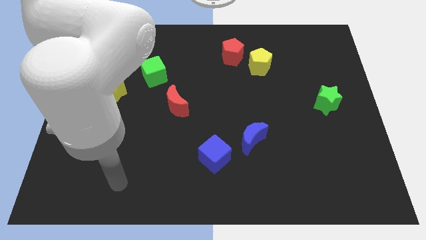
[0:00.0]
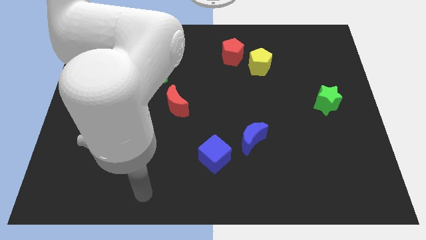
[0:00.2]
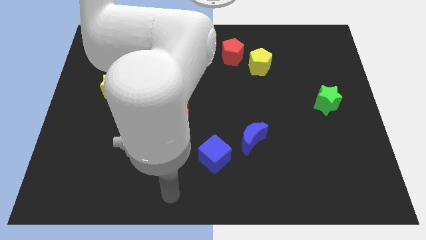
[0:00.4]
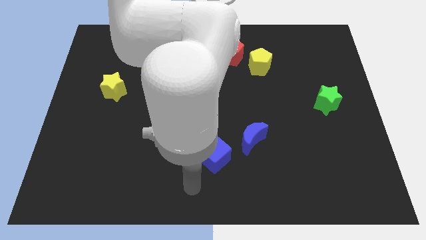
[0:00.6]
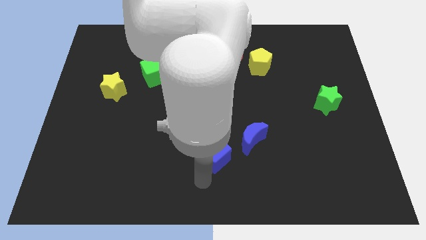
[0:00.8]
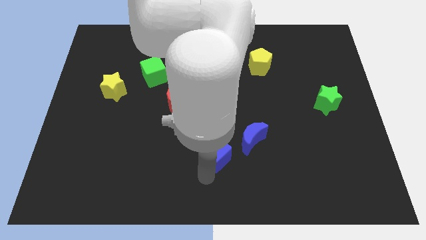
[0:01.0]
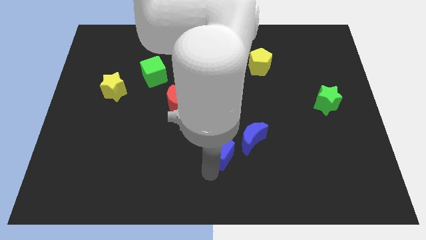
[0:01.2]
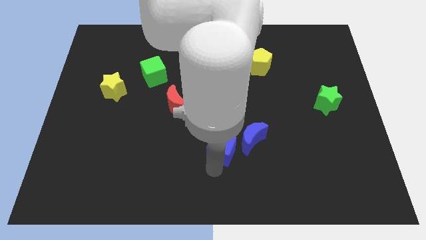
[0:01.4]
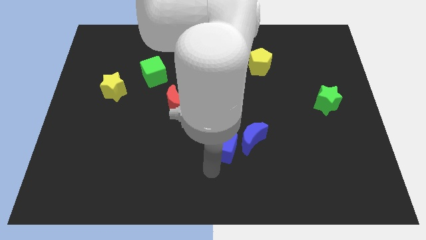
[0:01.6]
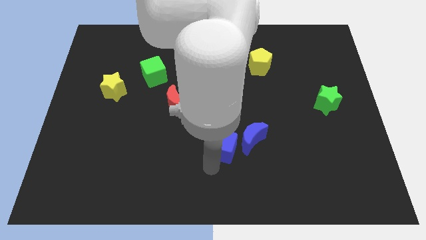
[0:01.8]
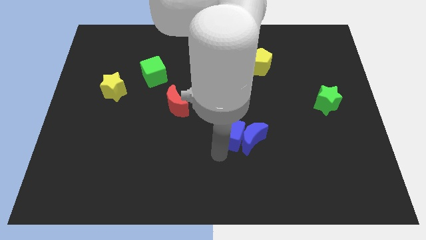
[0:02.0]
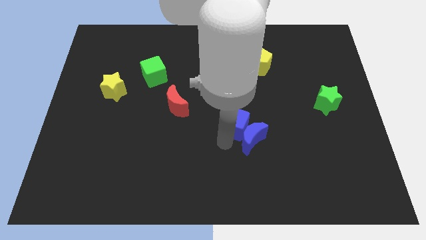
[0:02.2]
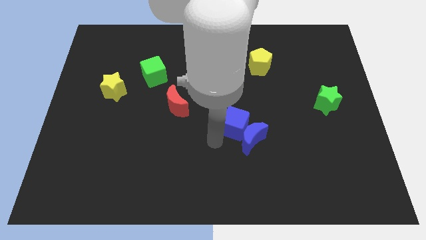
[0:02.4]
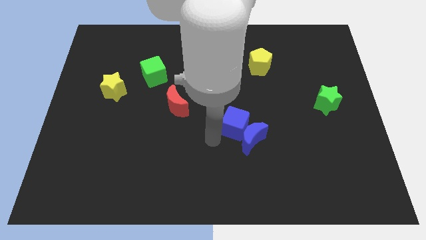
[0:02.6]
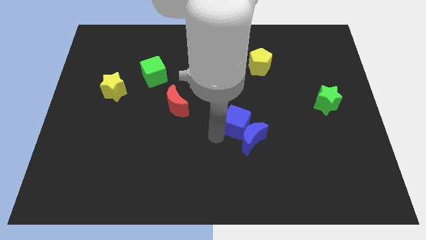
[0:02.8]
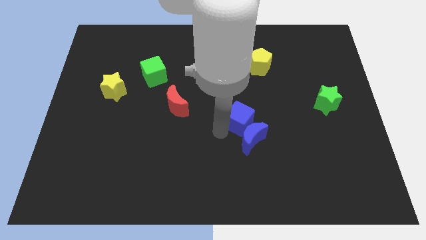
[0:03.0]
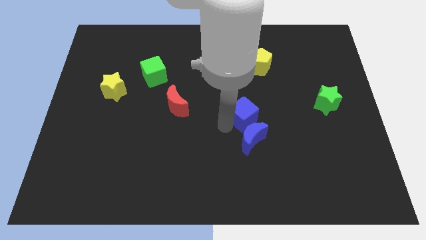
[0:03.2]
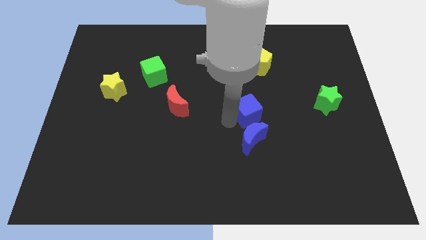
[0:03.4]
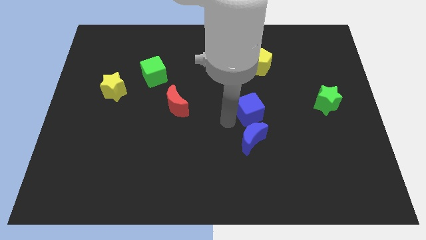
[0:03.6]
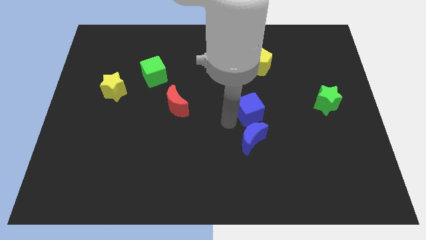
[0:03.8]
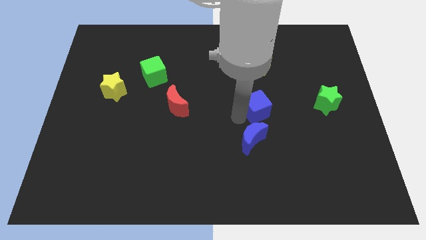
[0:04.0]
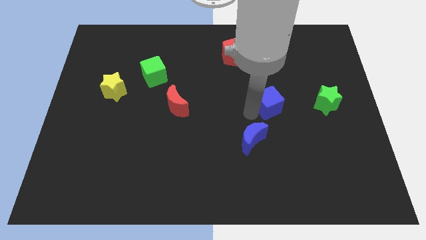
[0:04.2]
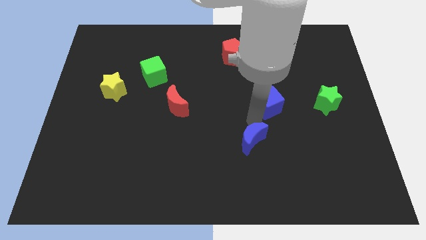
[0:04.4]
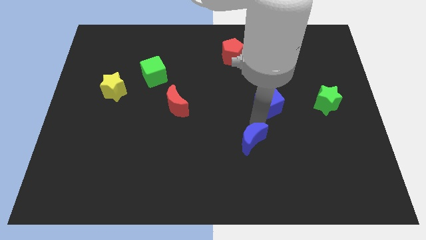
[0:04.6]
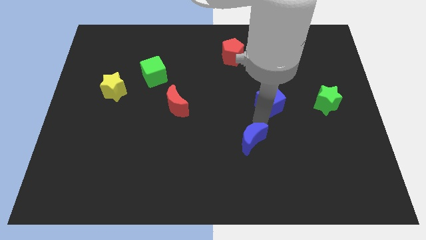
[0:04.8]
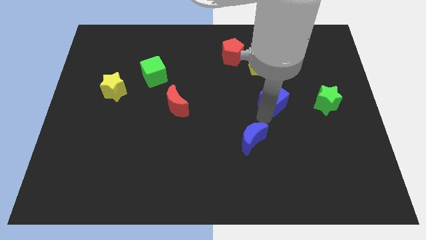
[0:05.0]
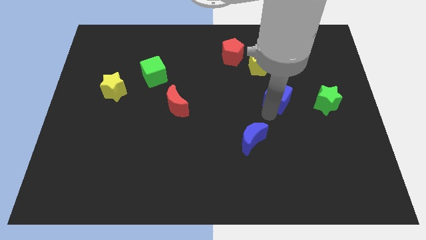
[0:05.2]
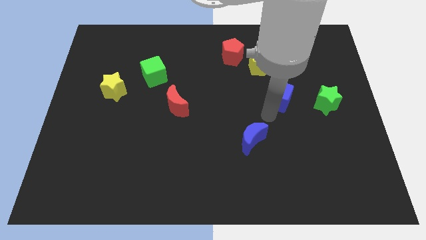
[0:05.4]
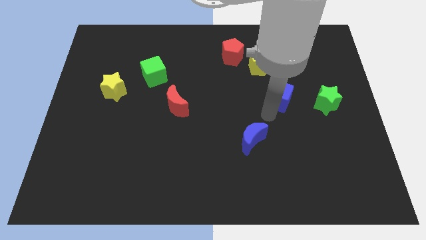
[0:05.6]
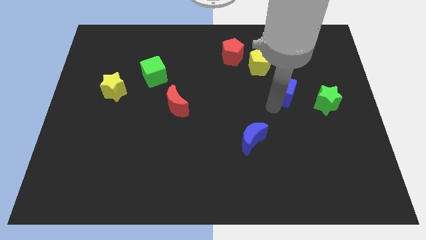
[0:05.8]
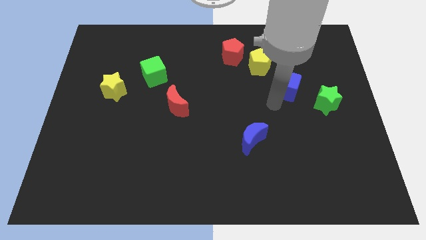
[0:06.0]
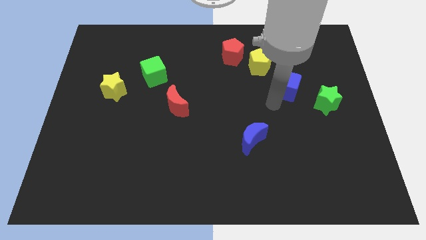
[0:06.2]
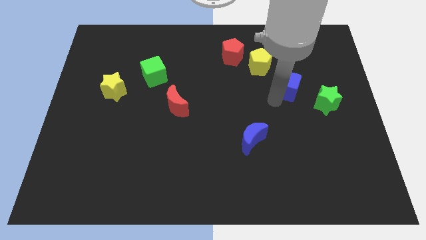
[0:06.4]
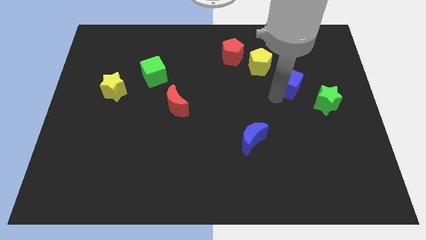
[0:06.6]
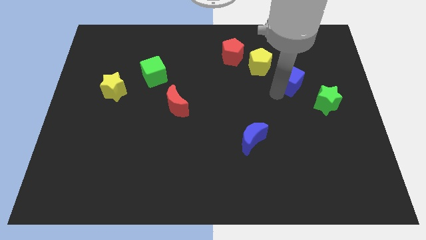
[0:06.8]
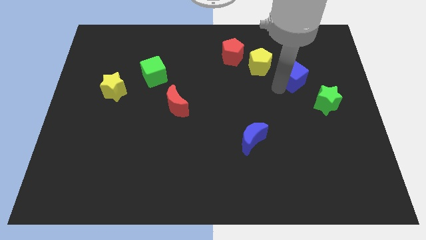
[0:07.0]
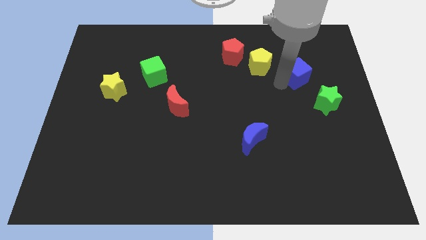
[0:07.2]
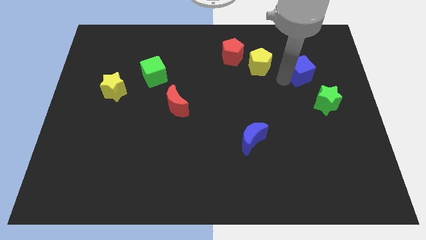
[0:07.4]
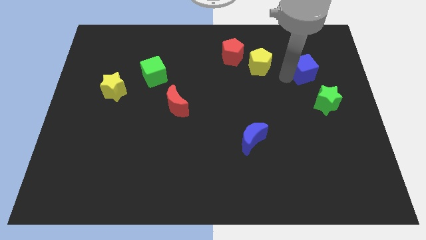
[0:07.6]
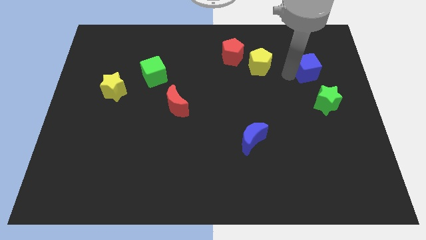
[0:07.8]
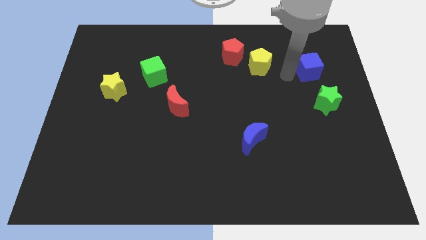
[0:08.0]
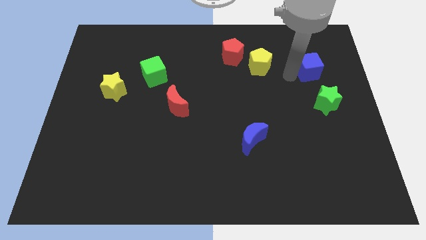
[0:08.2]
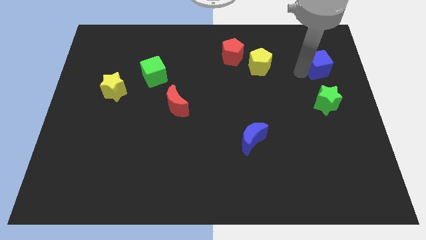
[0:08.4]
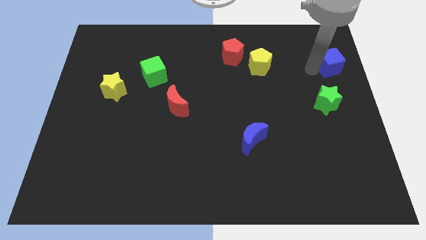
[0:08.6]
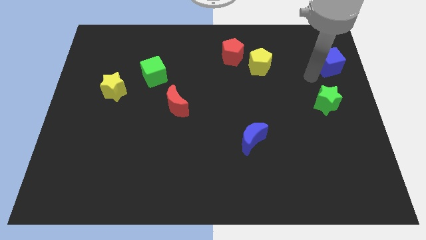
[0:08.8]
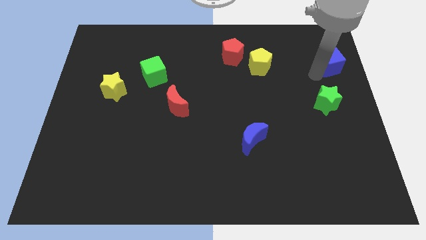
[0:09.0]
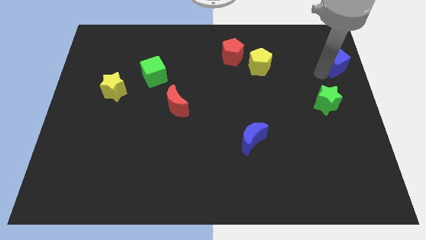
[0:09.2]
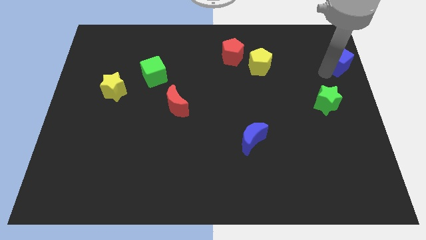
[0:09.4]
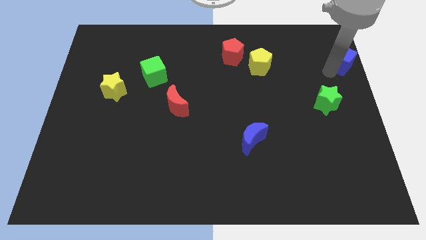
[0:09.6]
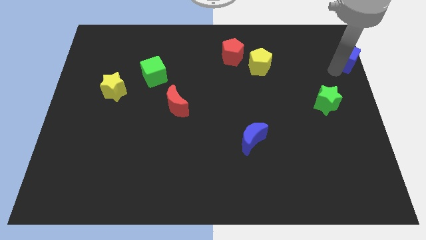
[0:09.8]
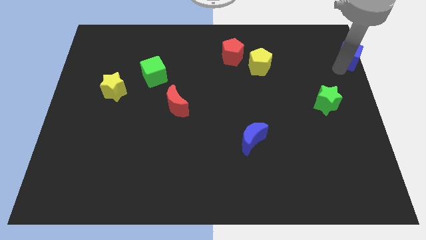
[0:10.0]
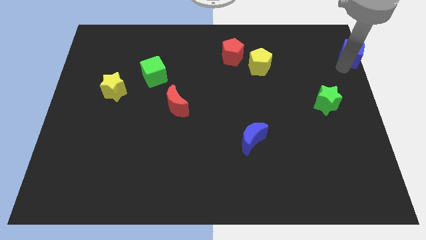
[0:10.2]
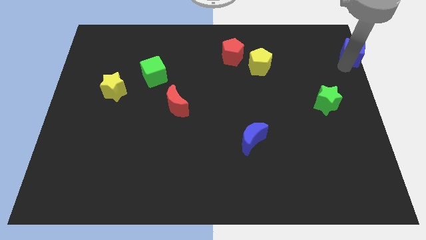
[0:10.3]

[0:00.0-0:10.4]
put the blue cube to the top right

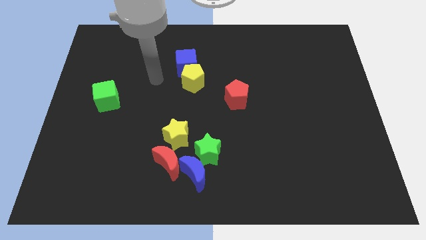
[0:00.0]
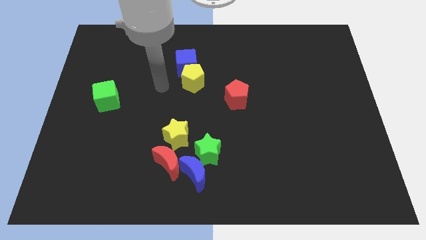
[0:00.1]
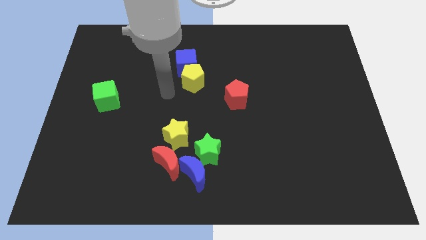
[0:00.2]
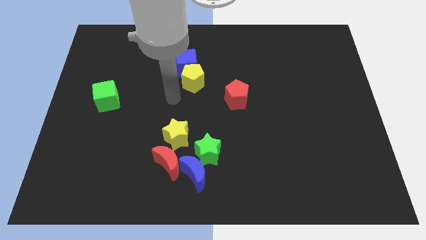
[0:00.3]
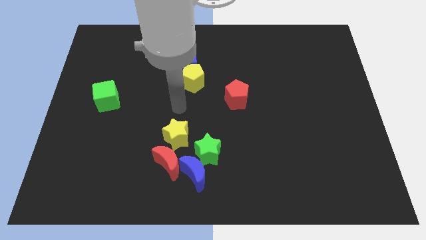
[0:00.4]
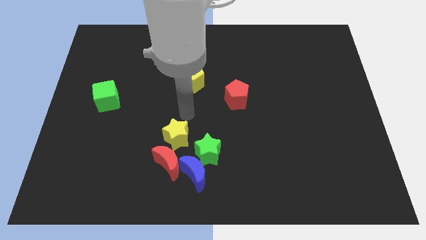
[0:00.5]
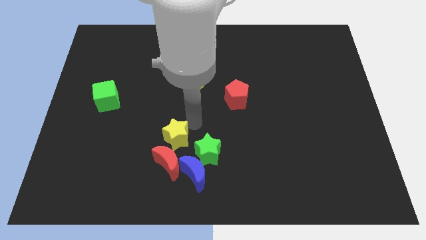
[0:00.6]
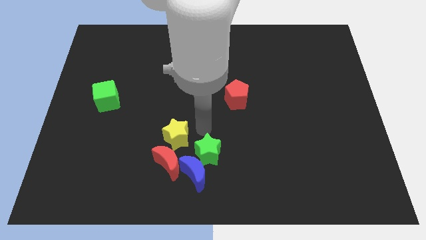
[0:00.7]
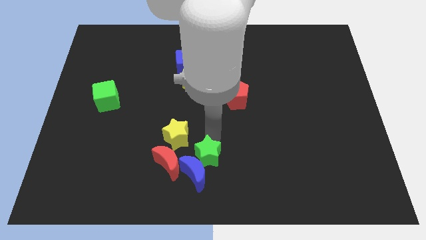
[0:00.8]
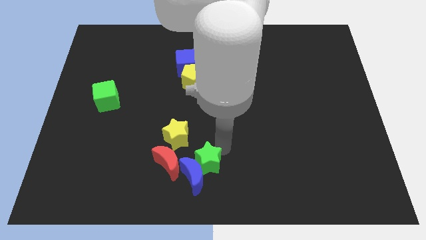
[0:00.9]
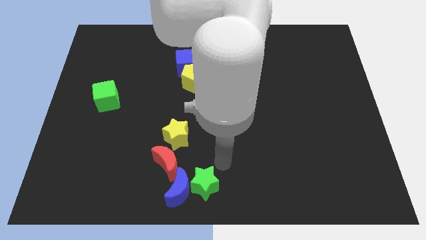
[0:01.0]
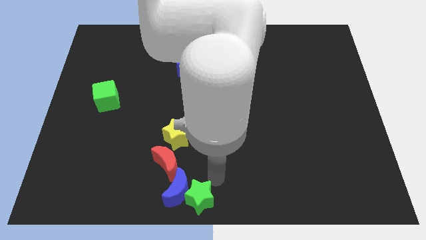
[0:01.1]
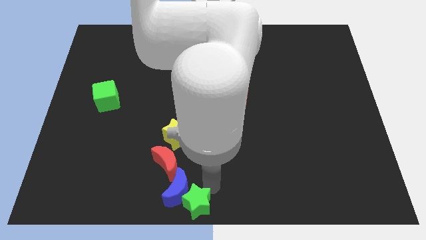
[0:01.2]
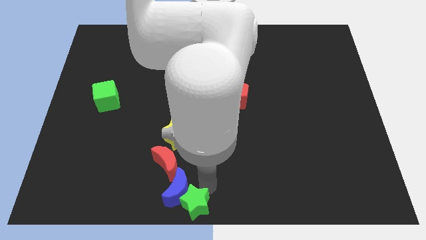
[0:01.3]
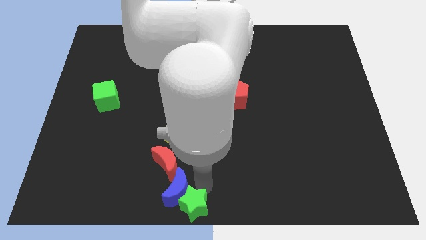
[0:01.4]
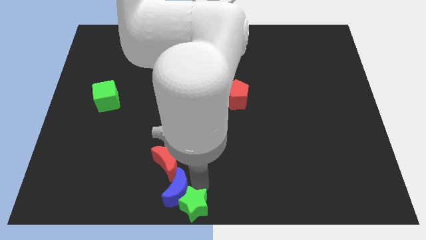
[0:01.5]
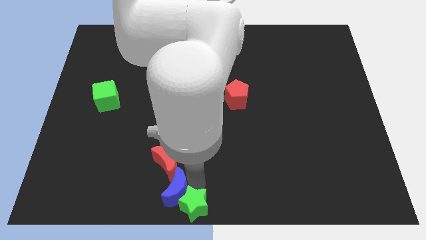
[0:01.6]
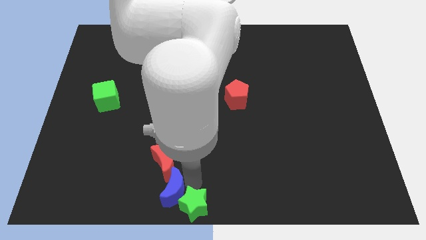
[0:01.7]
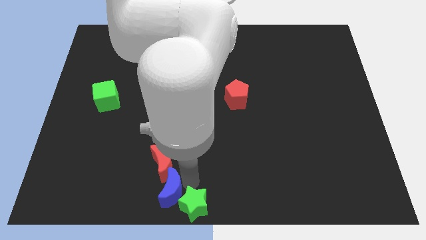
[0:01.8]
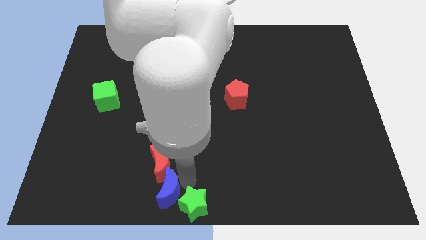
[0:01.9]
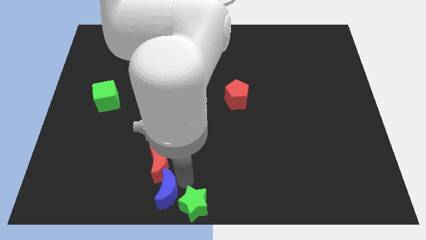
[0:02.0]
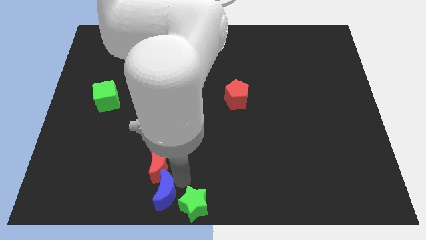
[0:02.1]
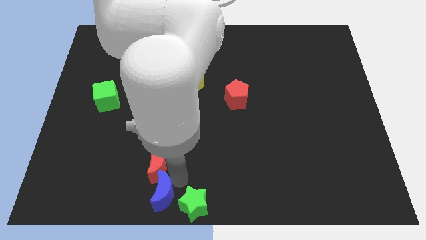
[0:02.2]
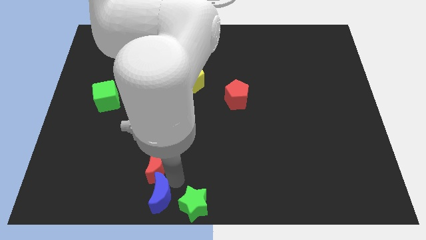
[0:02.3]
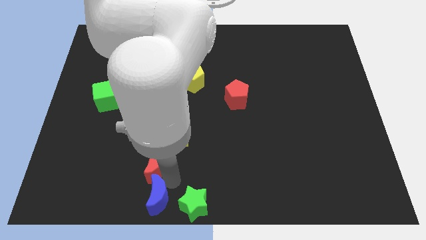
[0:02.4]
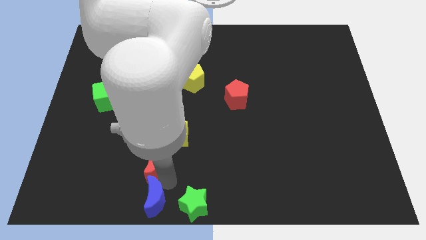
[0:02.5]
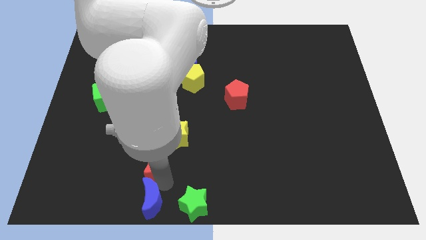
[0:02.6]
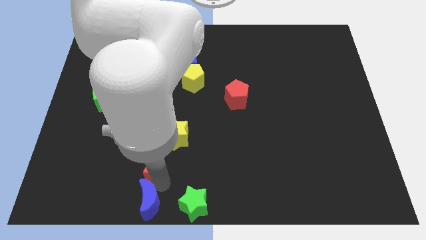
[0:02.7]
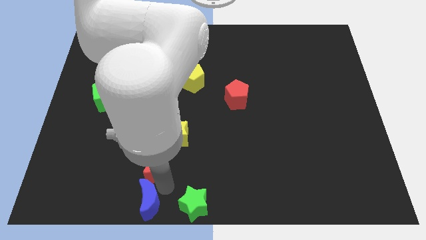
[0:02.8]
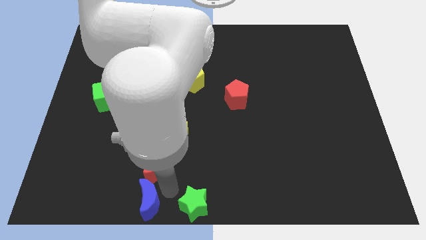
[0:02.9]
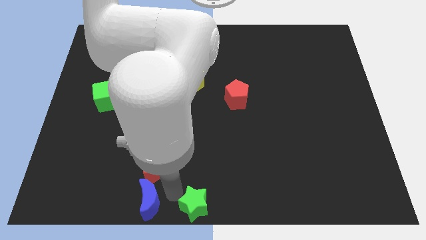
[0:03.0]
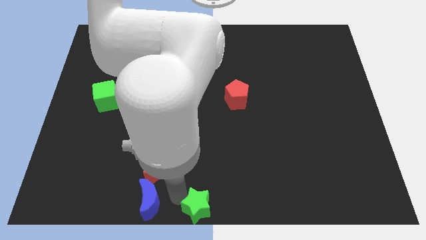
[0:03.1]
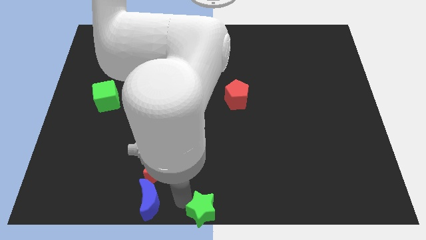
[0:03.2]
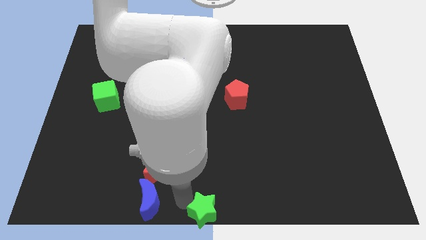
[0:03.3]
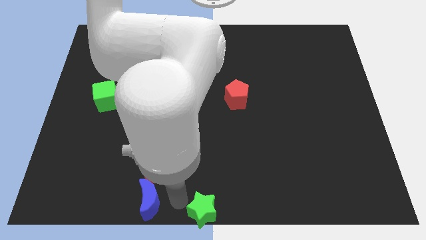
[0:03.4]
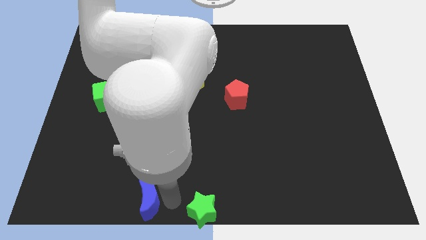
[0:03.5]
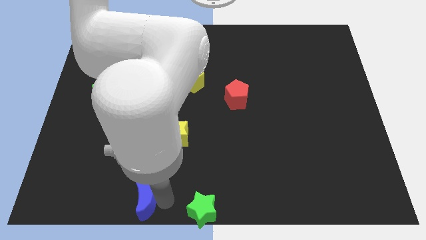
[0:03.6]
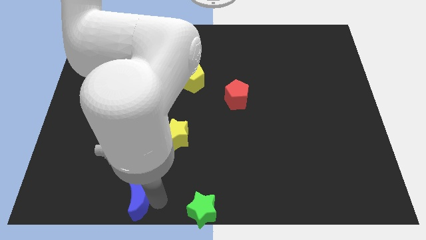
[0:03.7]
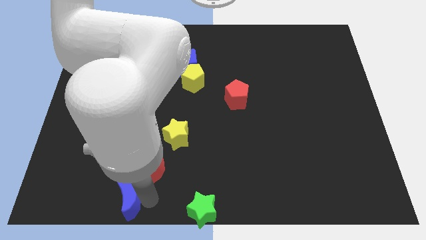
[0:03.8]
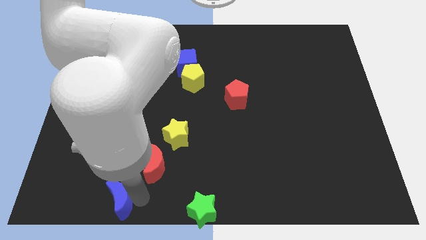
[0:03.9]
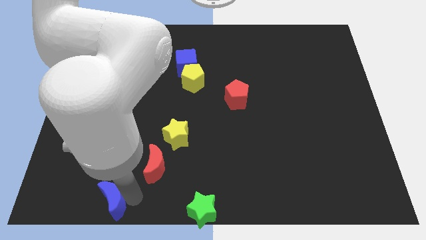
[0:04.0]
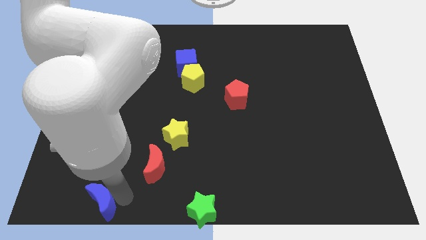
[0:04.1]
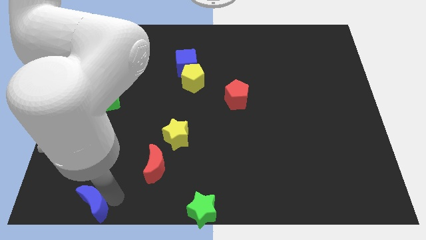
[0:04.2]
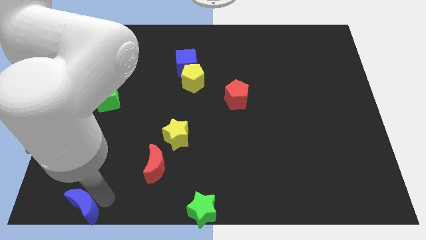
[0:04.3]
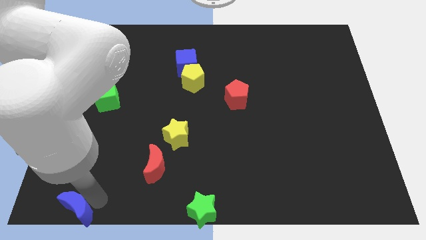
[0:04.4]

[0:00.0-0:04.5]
move the blue moon to the bottom left of the board
